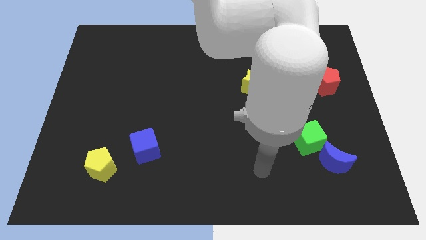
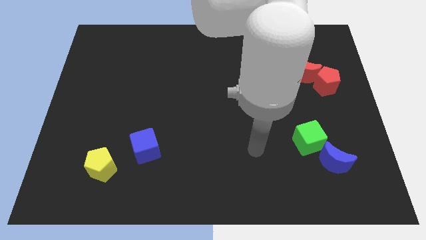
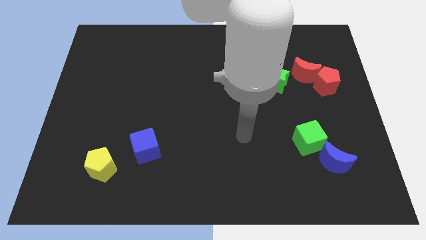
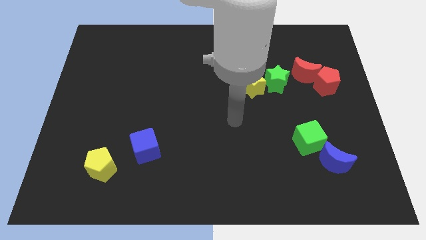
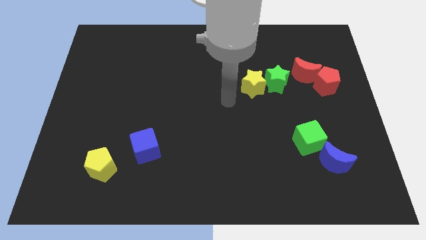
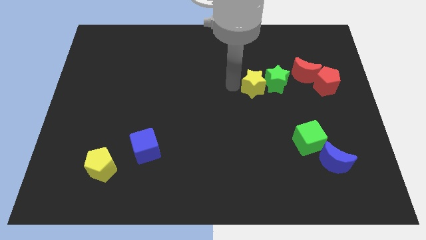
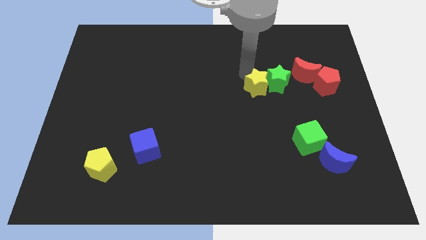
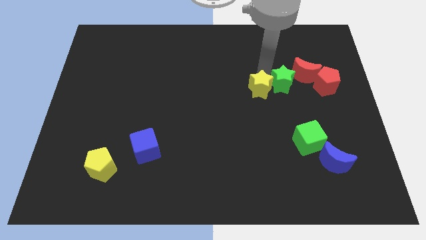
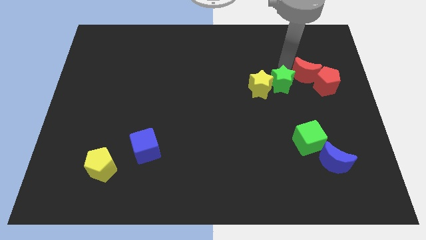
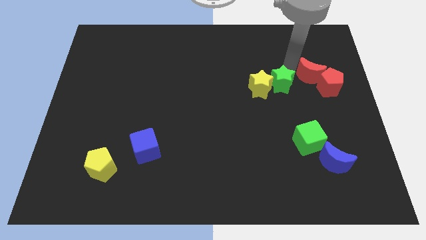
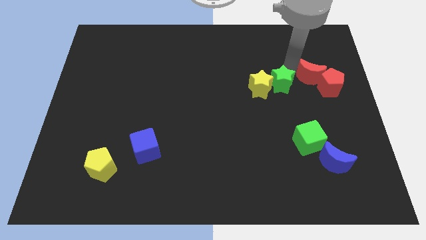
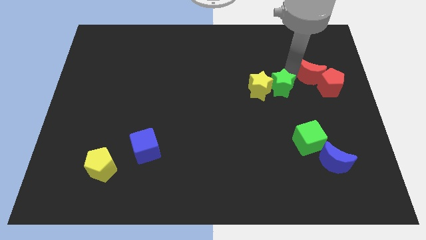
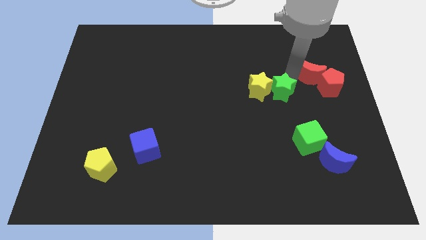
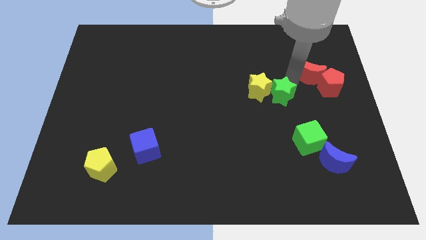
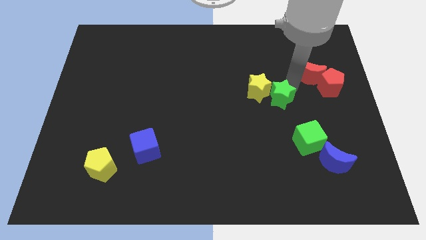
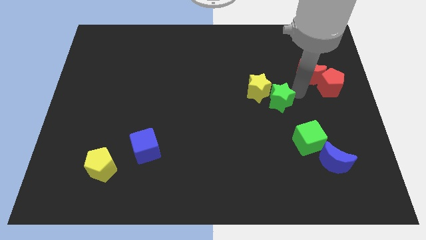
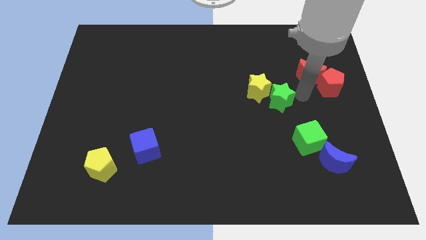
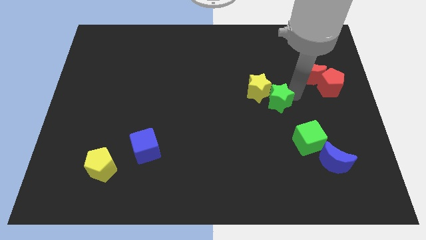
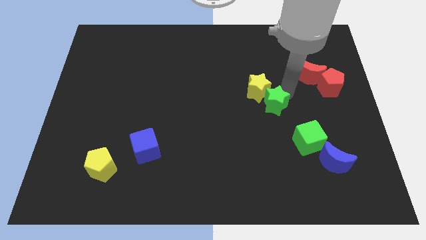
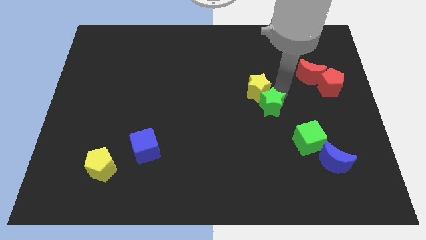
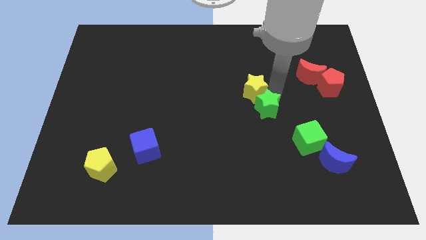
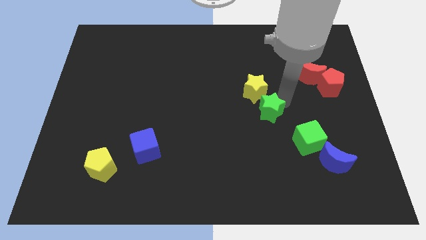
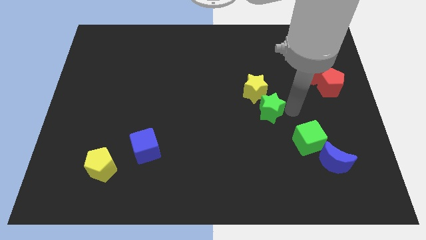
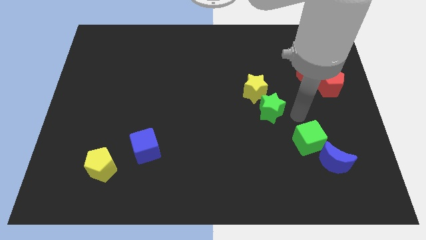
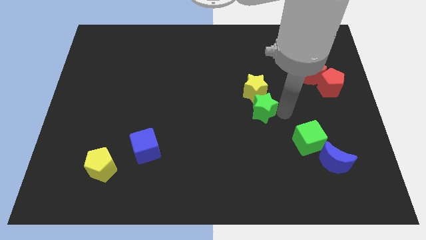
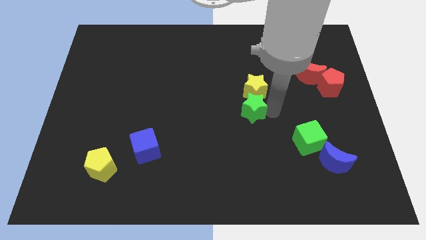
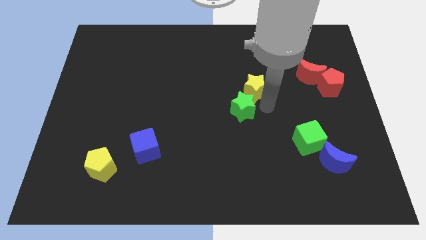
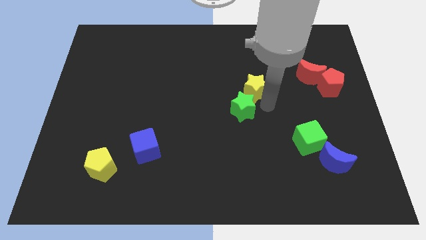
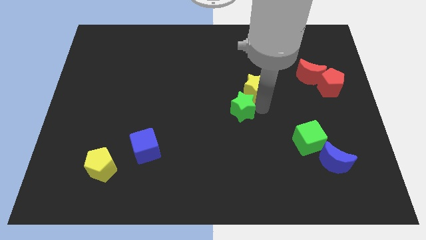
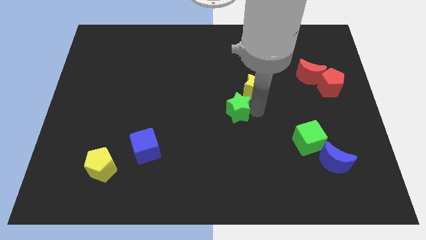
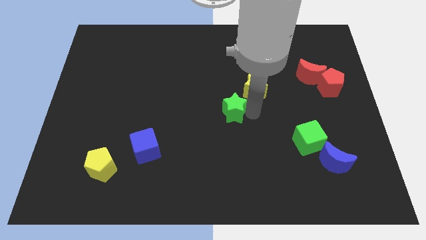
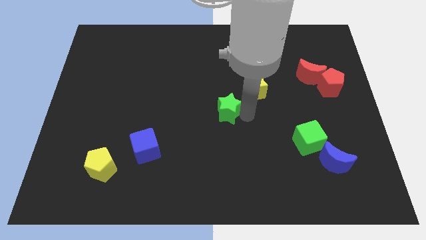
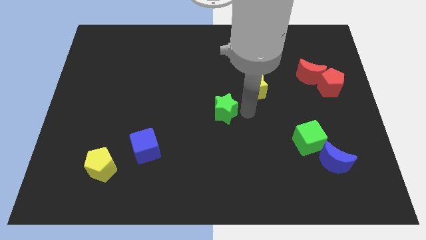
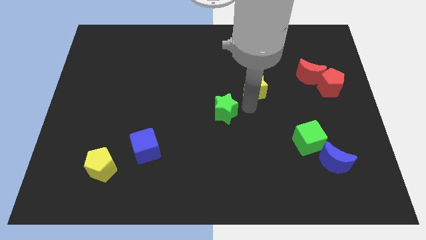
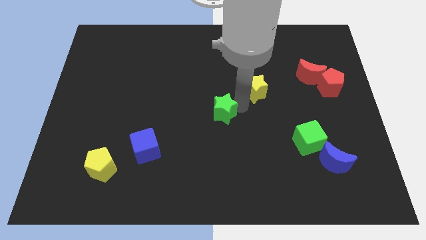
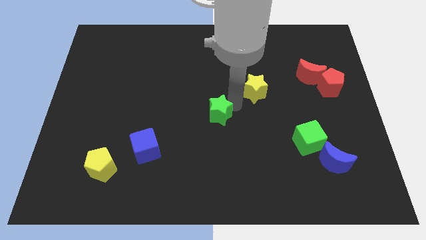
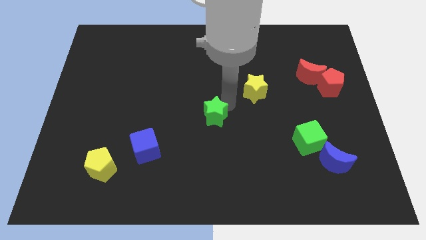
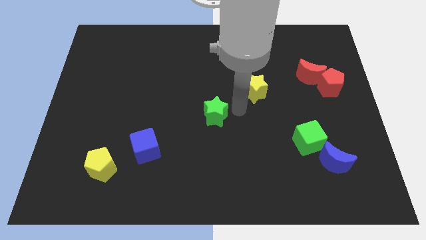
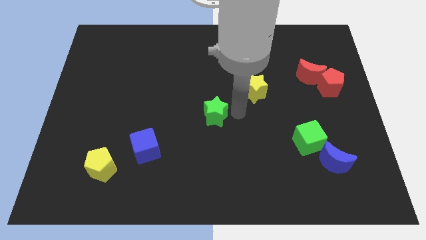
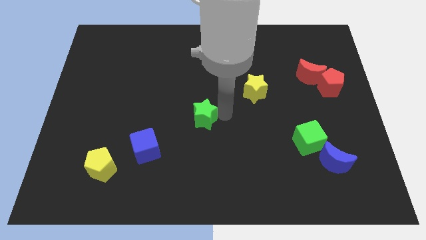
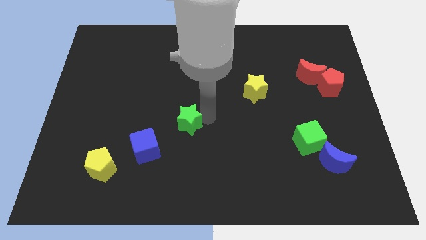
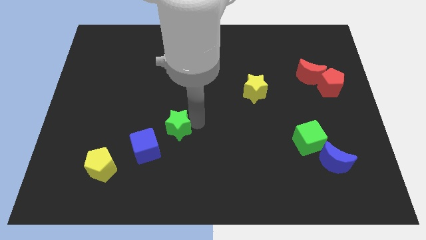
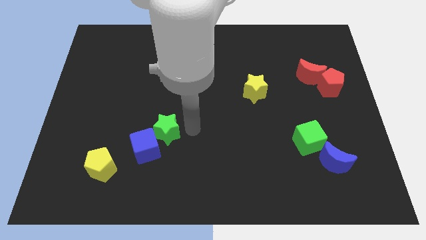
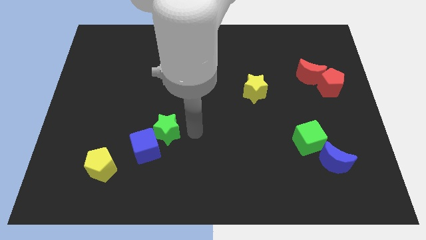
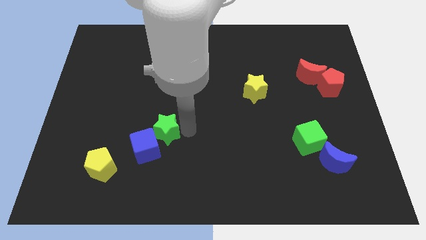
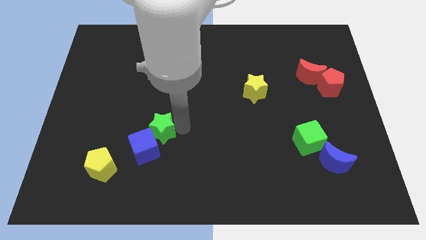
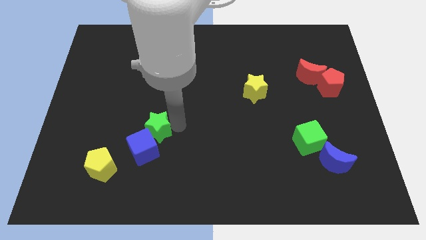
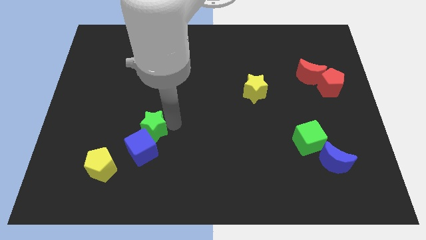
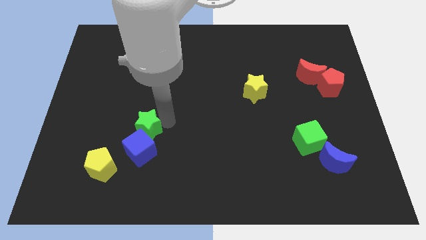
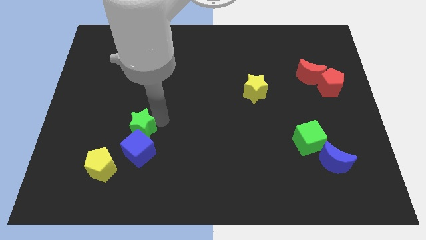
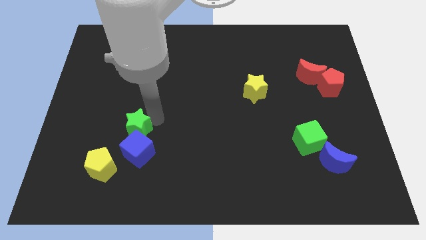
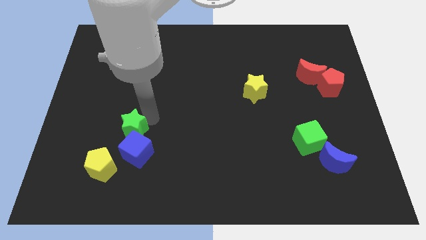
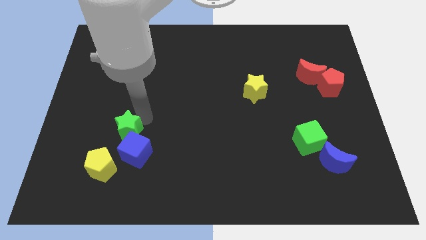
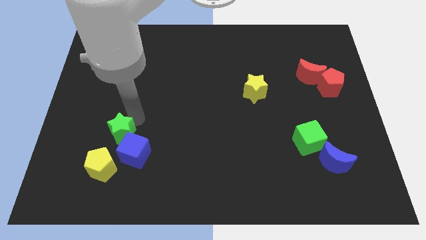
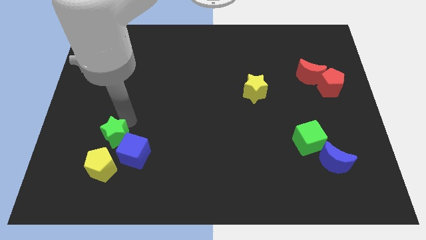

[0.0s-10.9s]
put the green star to the left of the blue cube

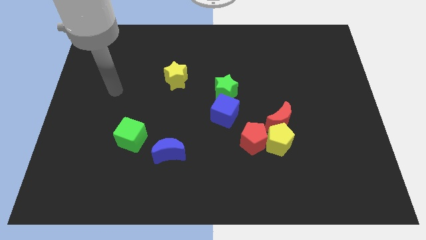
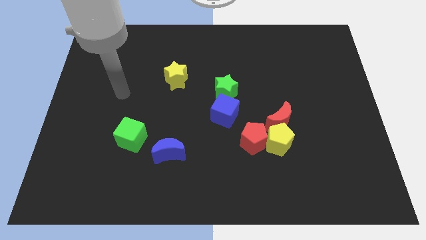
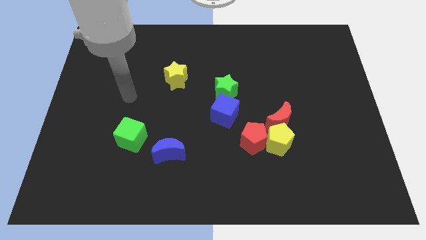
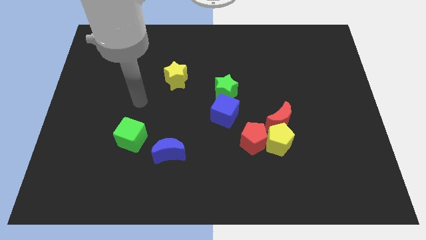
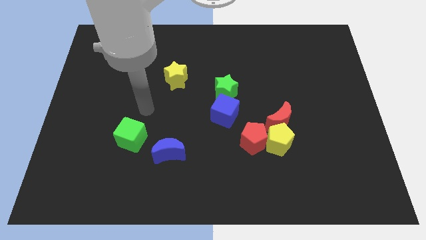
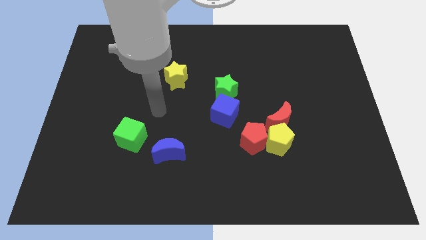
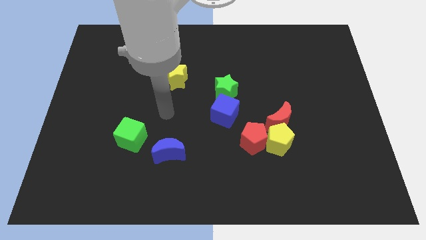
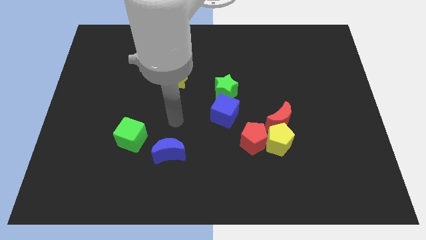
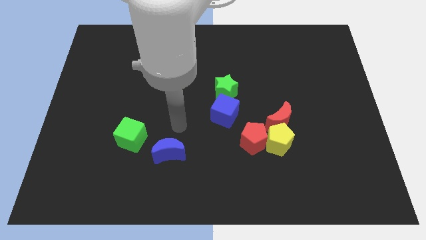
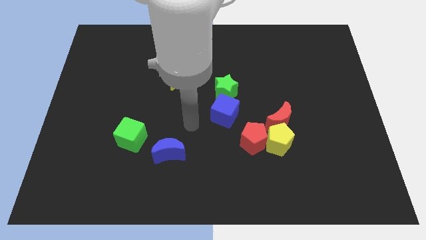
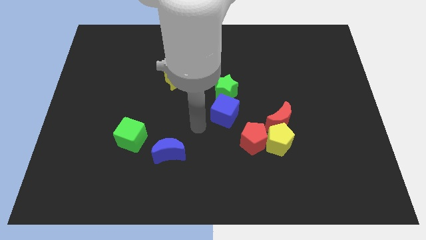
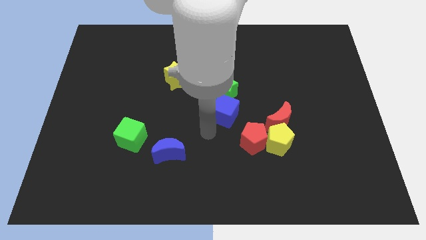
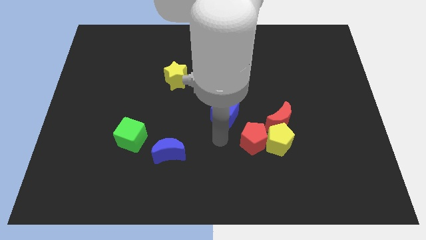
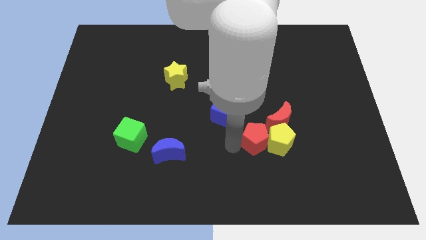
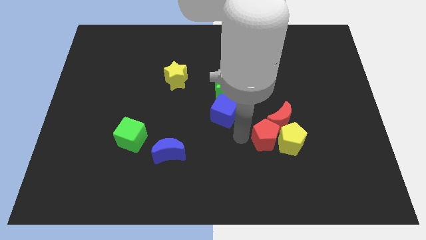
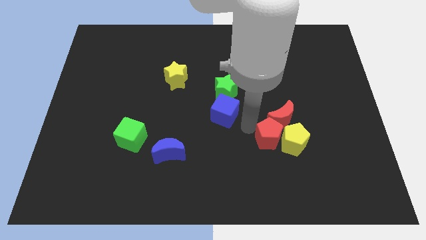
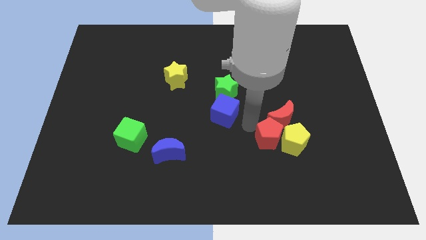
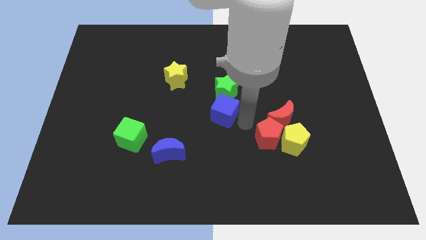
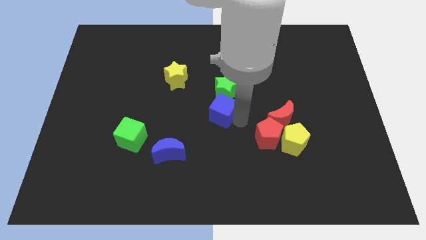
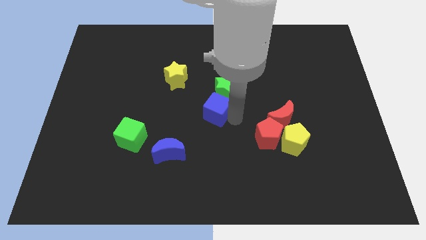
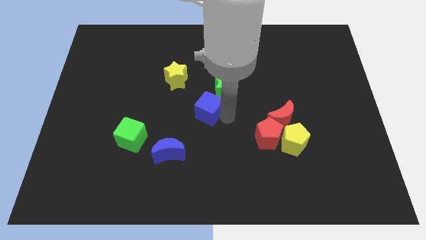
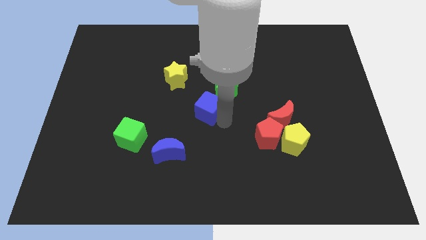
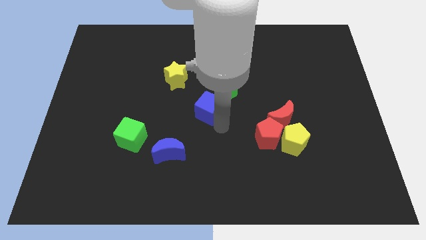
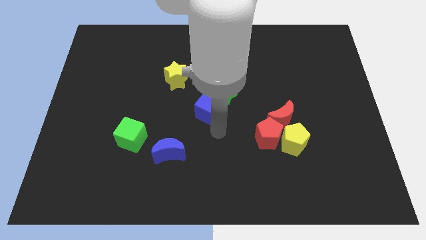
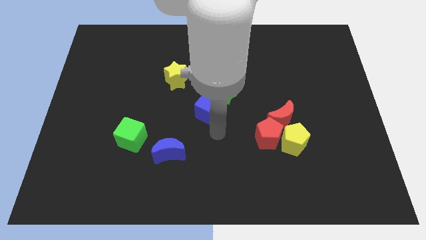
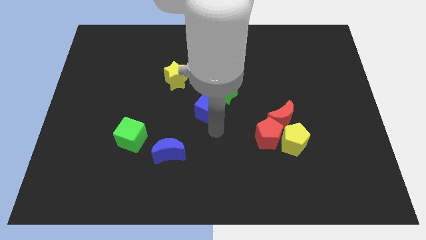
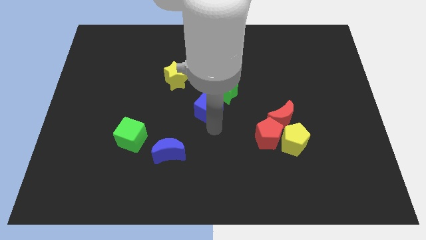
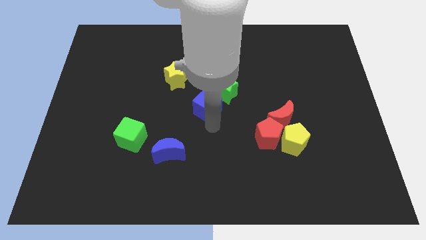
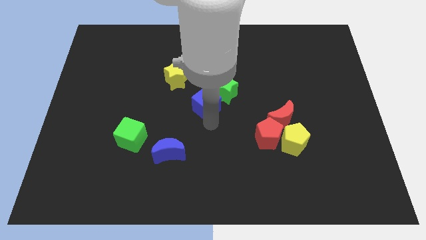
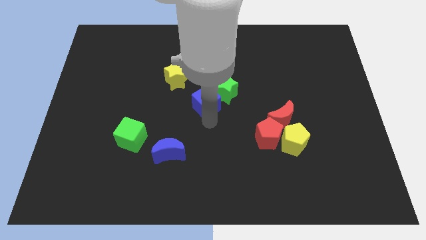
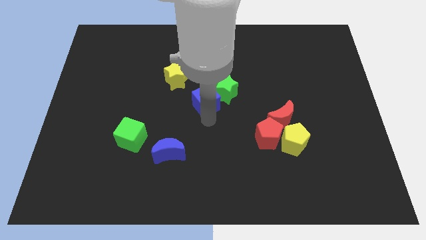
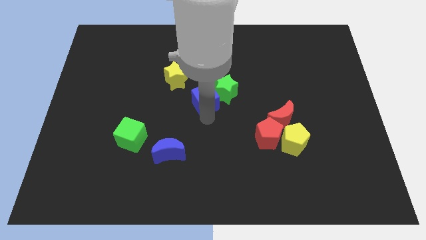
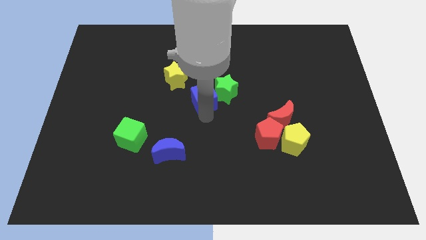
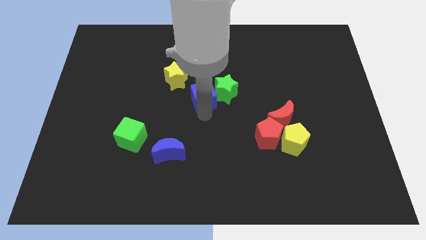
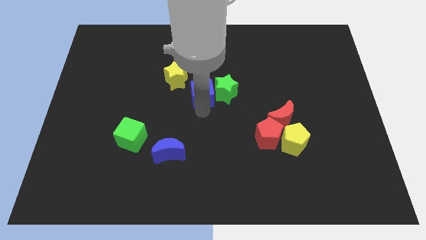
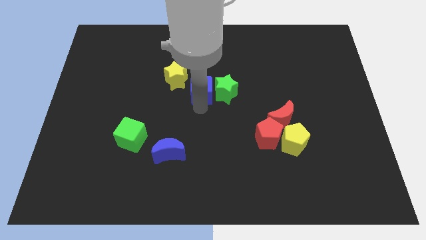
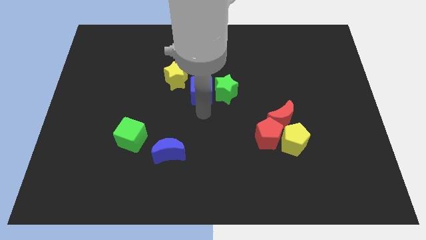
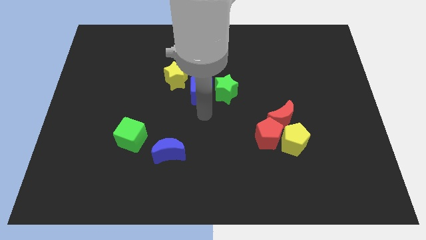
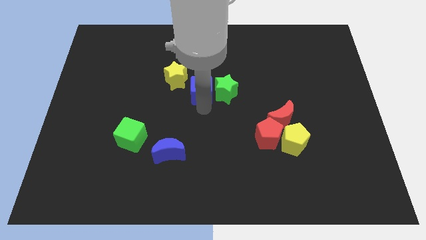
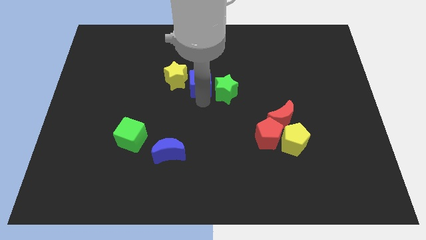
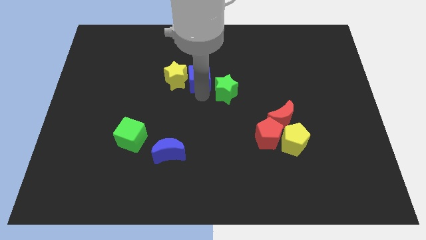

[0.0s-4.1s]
put the blue cube to the top right of the yellow star
